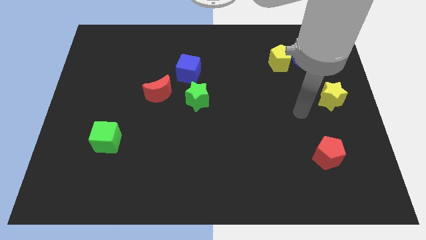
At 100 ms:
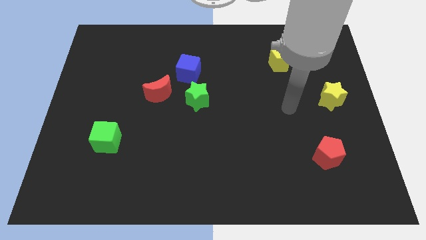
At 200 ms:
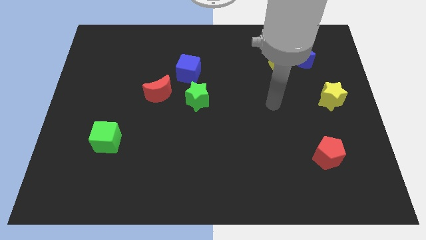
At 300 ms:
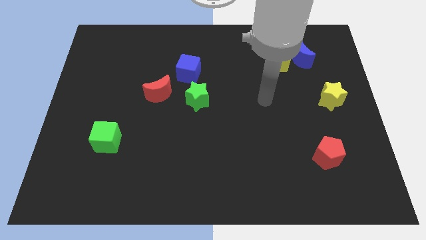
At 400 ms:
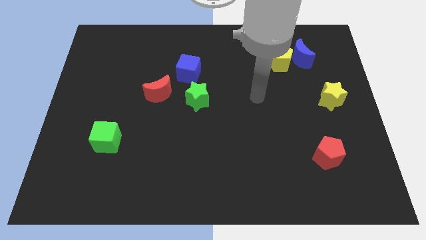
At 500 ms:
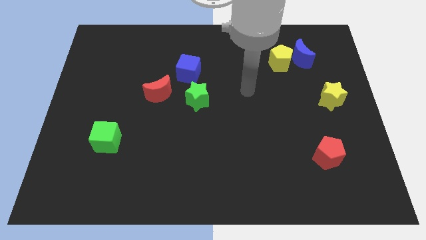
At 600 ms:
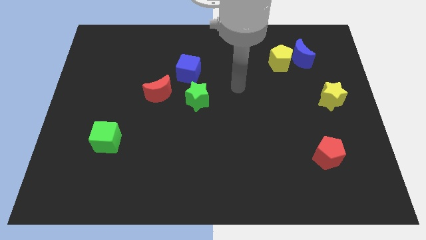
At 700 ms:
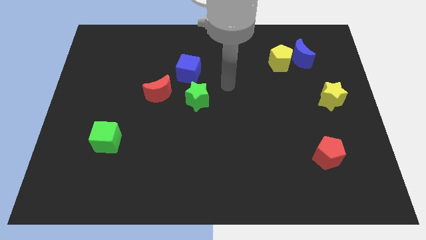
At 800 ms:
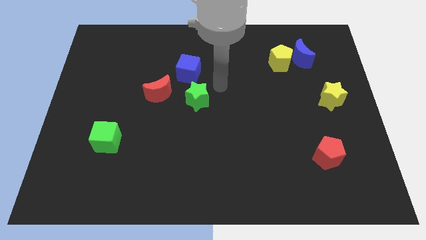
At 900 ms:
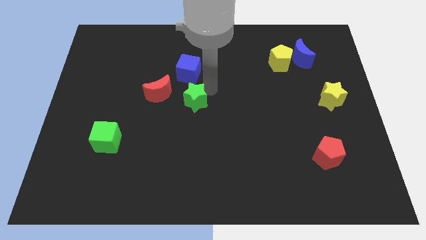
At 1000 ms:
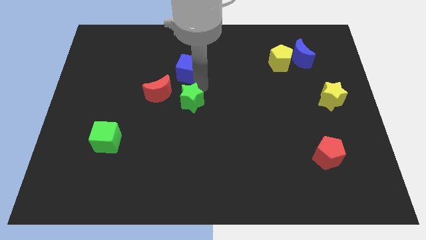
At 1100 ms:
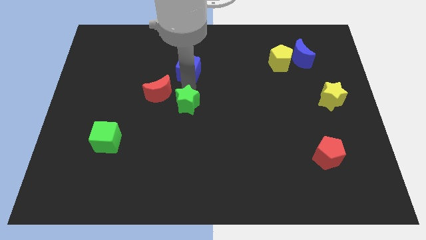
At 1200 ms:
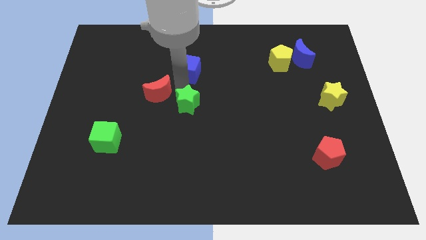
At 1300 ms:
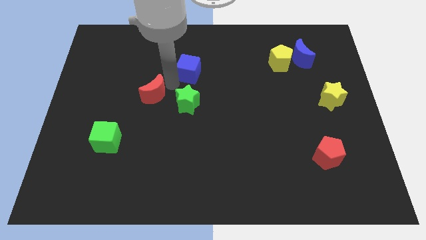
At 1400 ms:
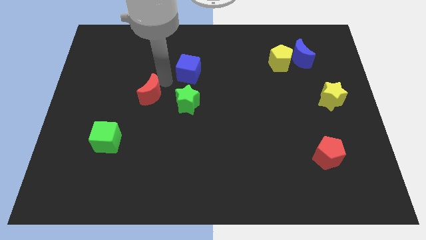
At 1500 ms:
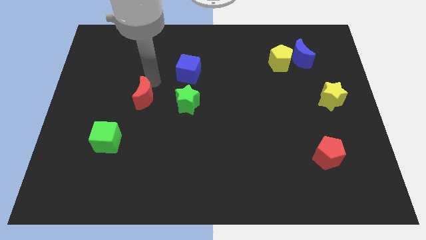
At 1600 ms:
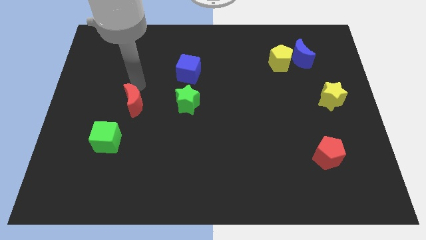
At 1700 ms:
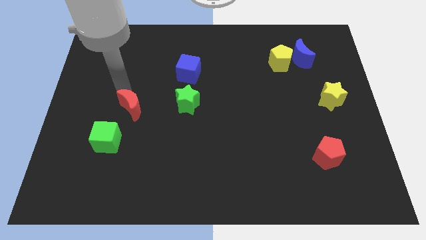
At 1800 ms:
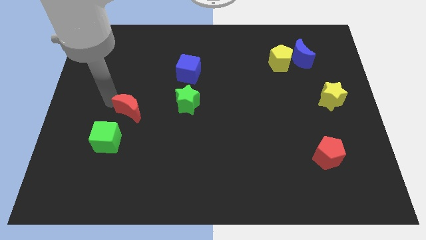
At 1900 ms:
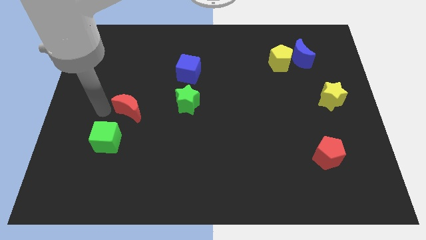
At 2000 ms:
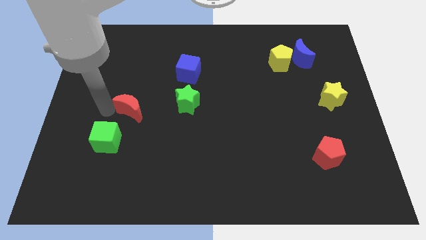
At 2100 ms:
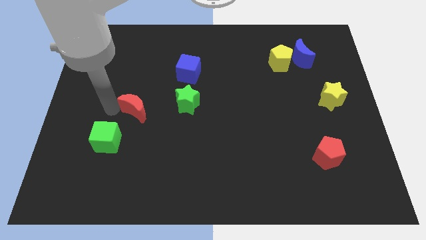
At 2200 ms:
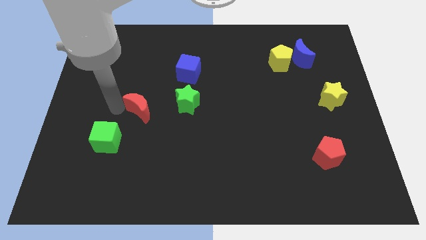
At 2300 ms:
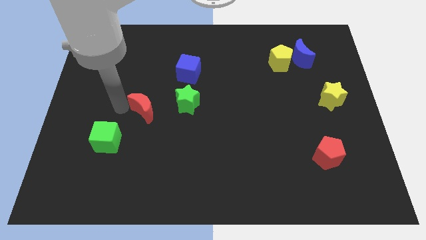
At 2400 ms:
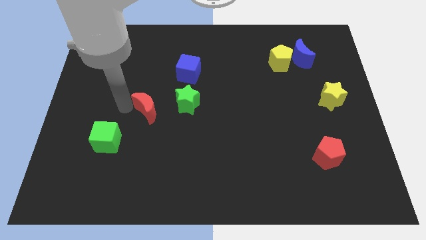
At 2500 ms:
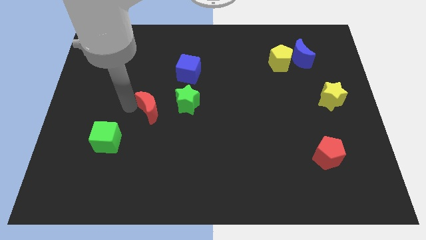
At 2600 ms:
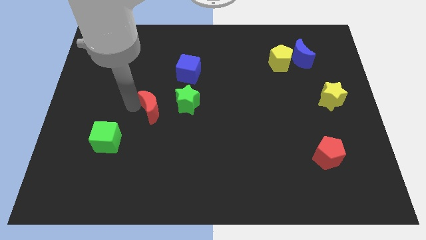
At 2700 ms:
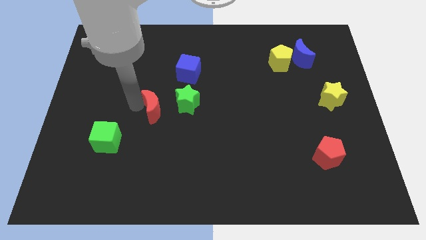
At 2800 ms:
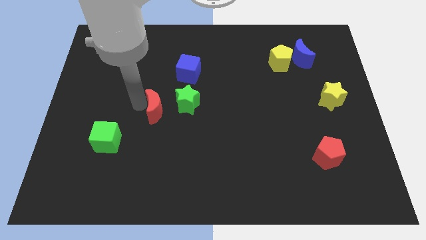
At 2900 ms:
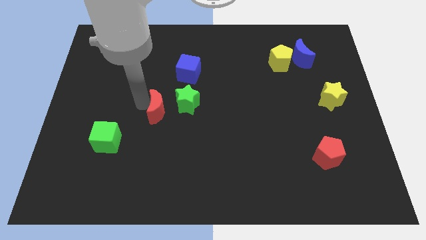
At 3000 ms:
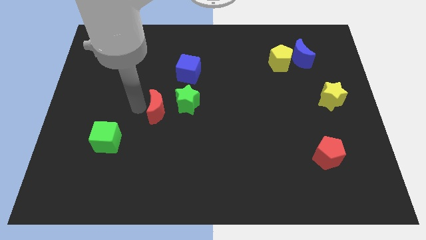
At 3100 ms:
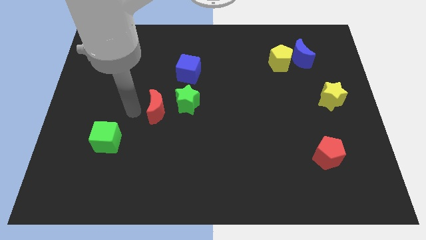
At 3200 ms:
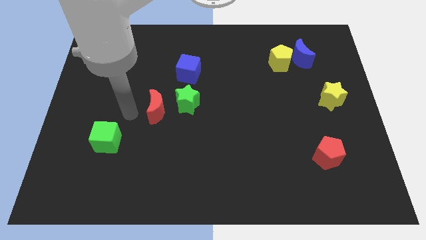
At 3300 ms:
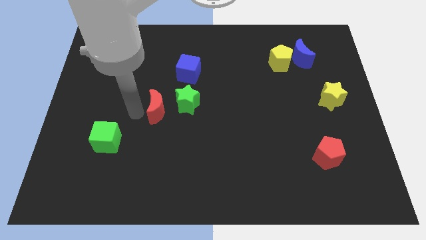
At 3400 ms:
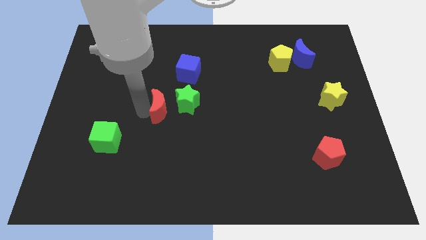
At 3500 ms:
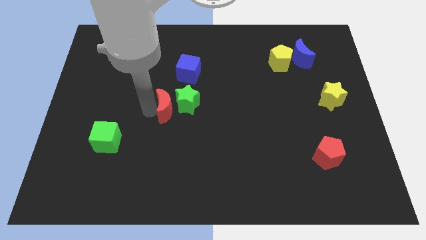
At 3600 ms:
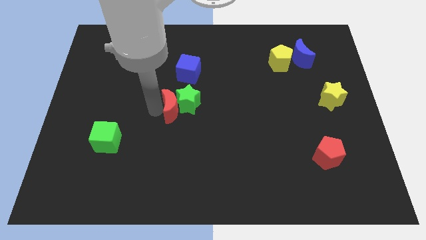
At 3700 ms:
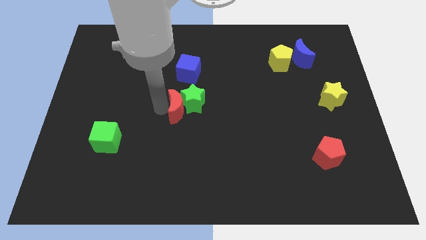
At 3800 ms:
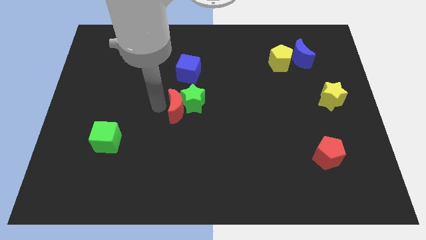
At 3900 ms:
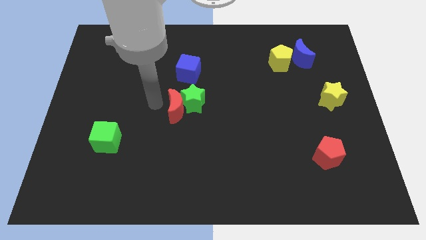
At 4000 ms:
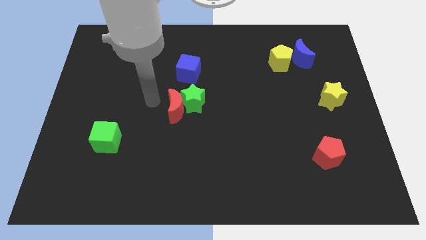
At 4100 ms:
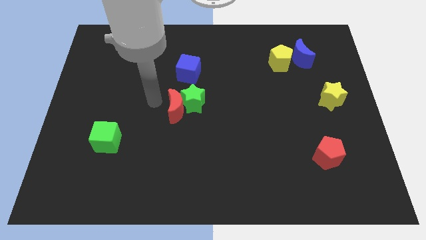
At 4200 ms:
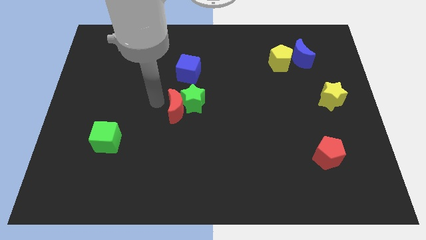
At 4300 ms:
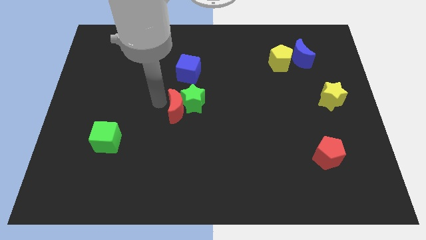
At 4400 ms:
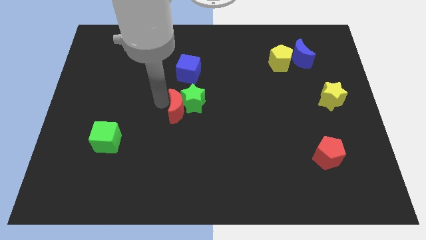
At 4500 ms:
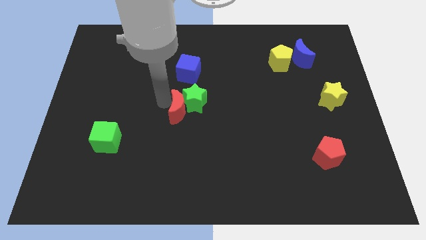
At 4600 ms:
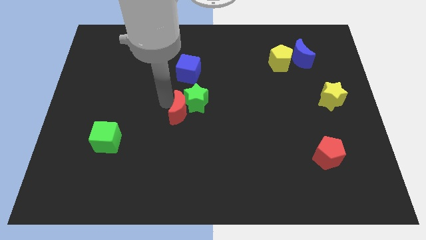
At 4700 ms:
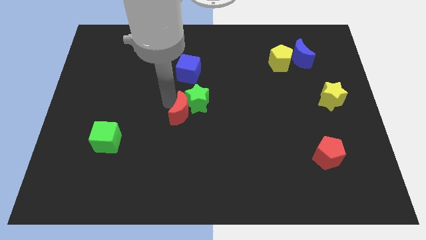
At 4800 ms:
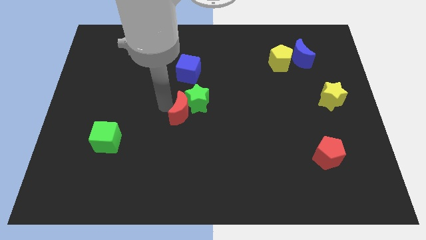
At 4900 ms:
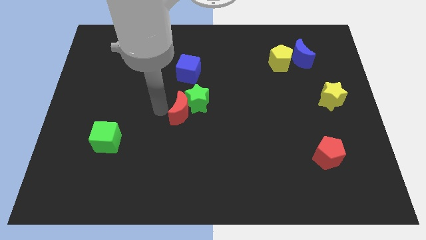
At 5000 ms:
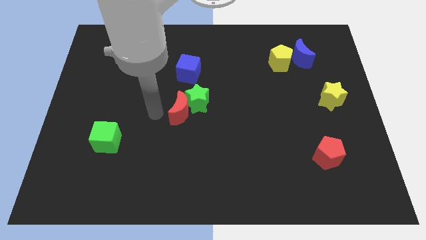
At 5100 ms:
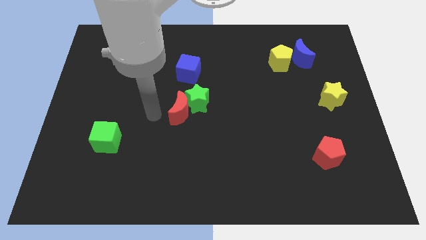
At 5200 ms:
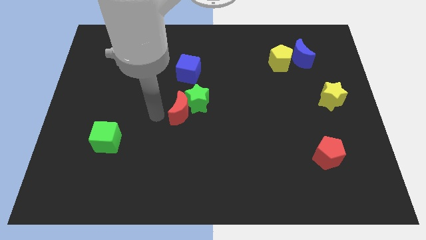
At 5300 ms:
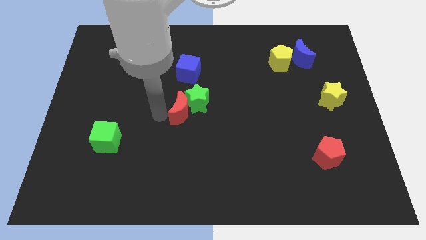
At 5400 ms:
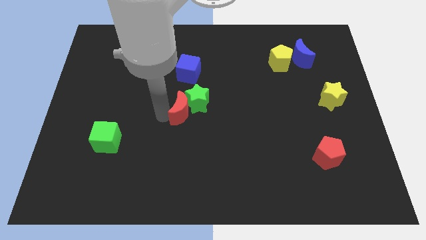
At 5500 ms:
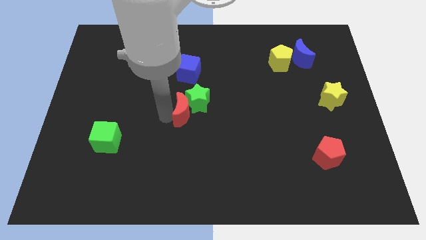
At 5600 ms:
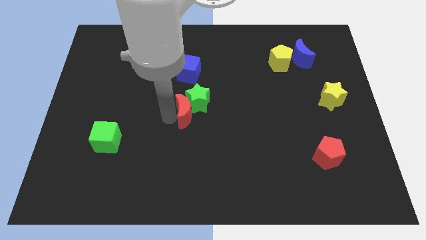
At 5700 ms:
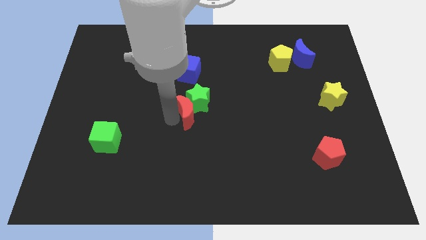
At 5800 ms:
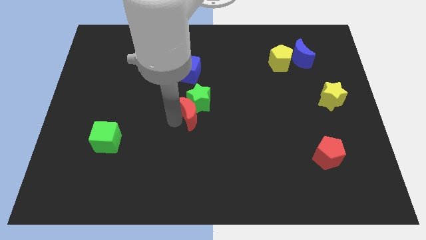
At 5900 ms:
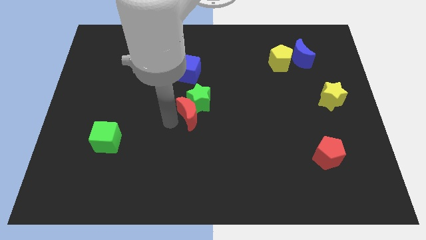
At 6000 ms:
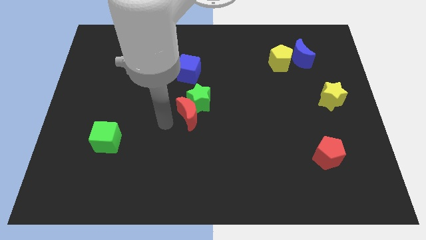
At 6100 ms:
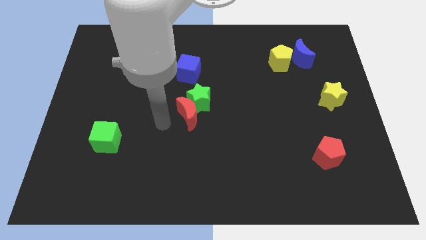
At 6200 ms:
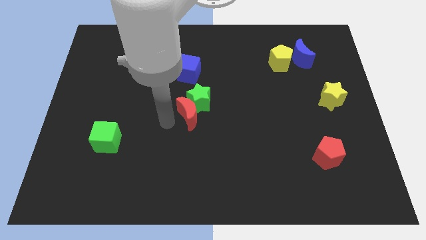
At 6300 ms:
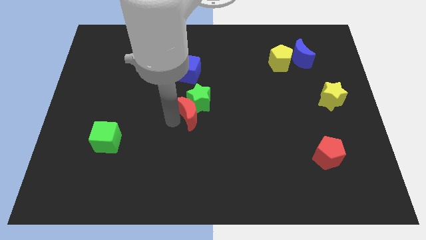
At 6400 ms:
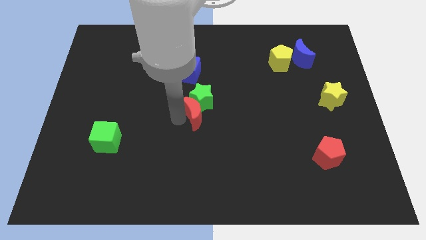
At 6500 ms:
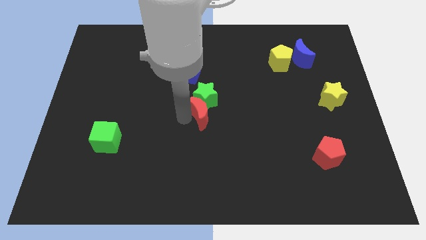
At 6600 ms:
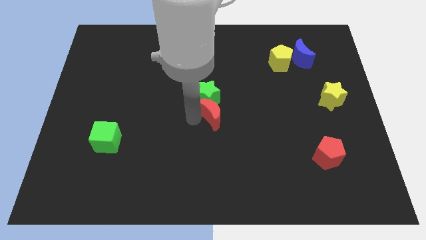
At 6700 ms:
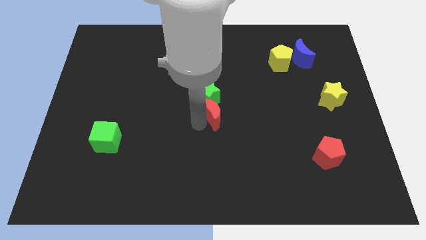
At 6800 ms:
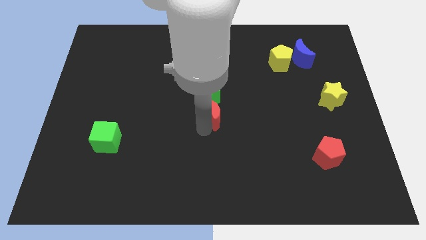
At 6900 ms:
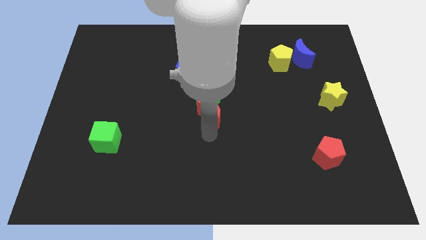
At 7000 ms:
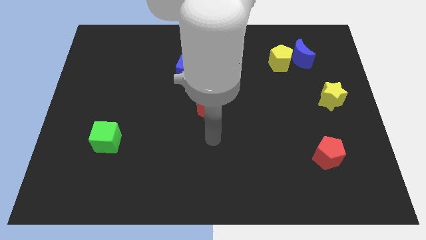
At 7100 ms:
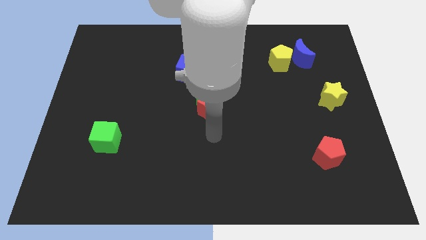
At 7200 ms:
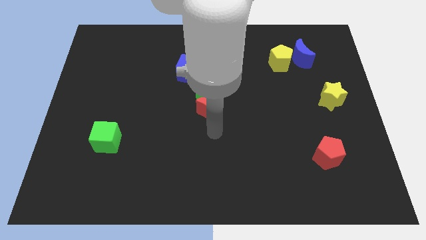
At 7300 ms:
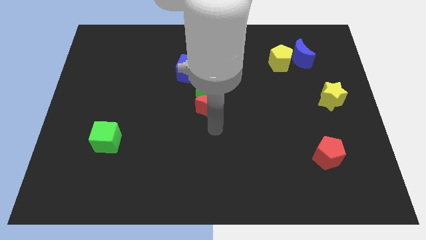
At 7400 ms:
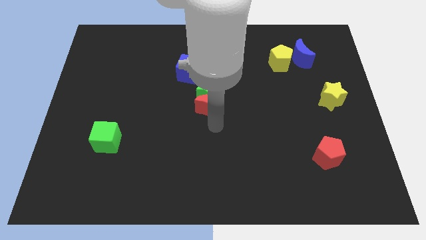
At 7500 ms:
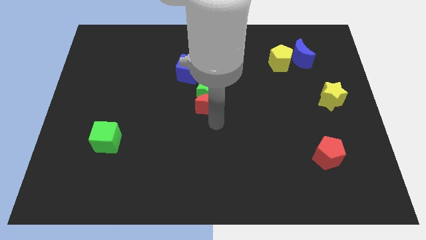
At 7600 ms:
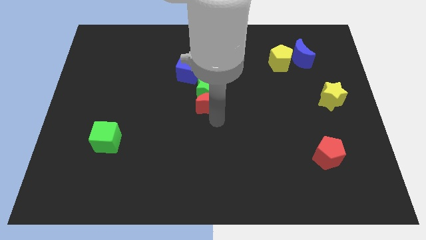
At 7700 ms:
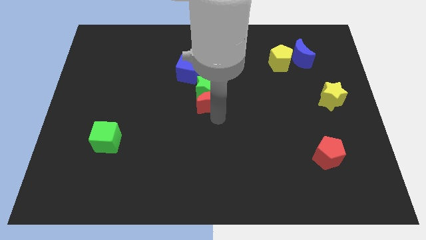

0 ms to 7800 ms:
slide the red moon to the bottom right side of the blue cube
